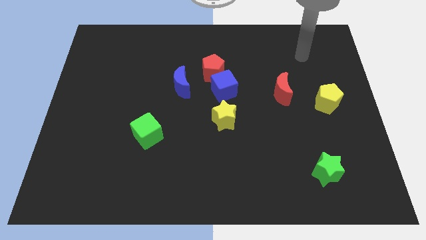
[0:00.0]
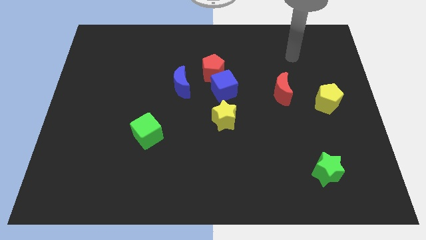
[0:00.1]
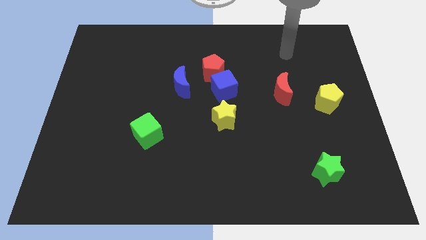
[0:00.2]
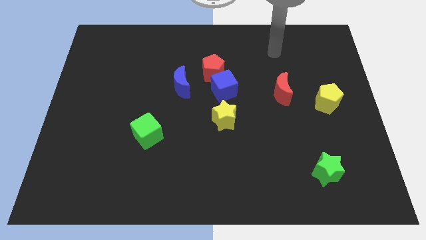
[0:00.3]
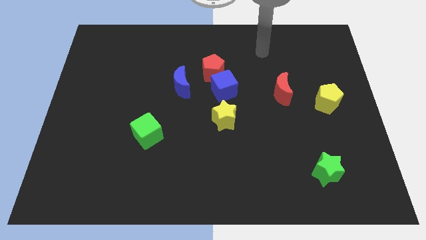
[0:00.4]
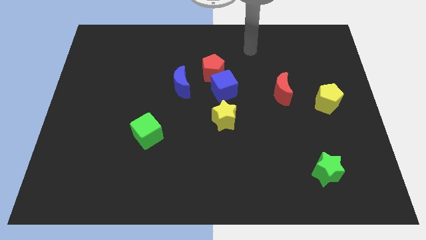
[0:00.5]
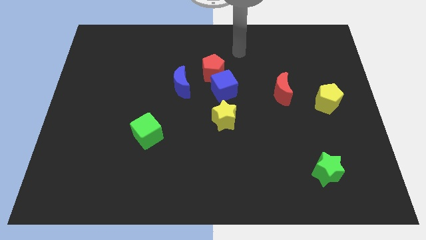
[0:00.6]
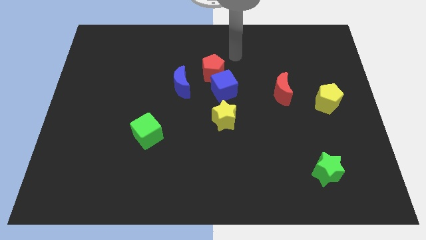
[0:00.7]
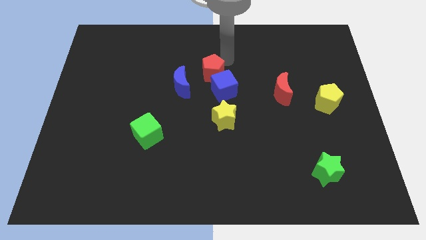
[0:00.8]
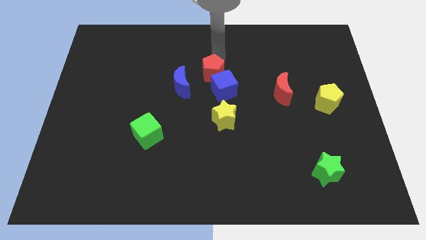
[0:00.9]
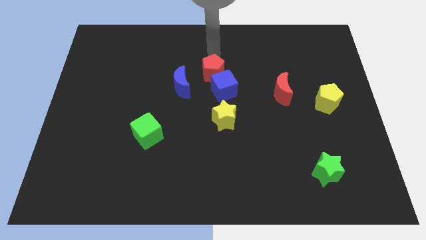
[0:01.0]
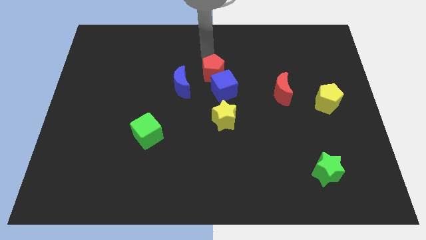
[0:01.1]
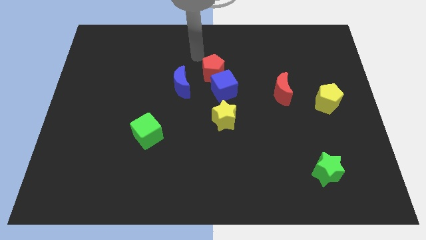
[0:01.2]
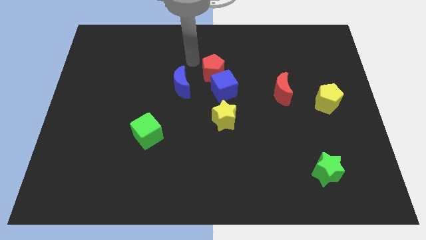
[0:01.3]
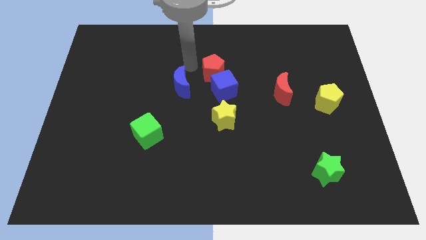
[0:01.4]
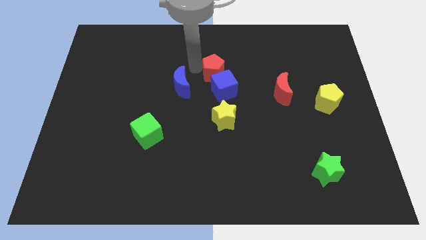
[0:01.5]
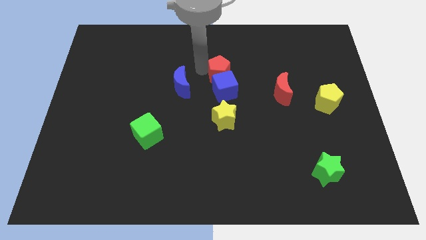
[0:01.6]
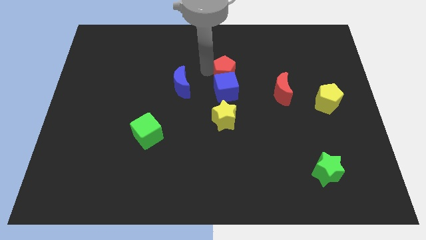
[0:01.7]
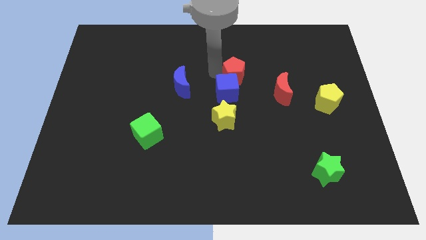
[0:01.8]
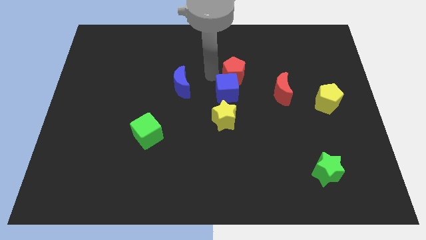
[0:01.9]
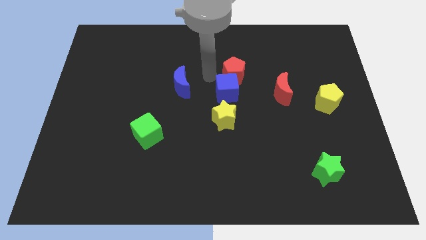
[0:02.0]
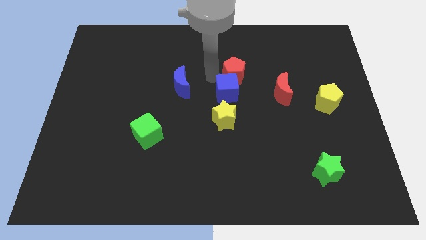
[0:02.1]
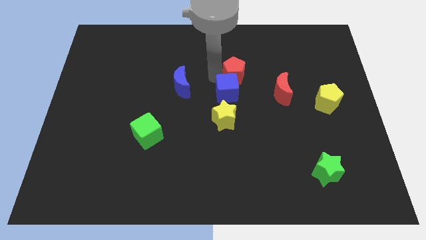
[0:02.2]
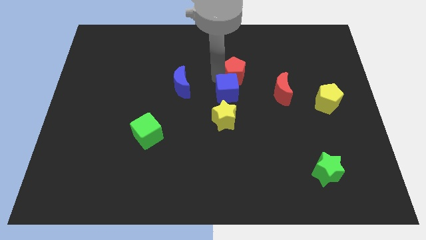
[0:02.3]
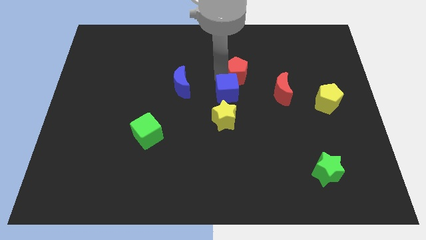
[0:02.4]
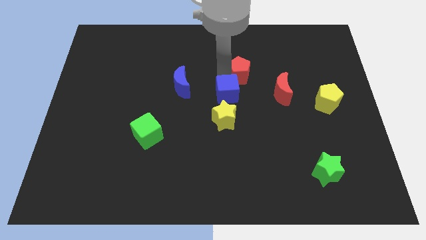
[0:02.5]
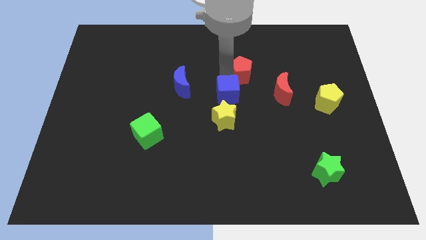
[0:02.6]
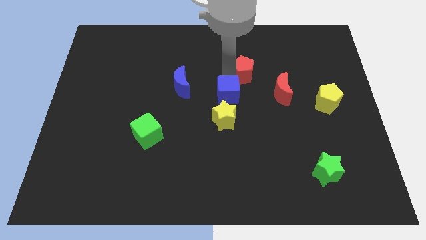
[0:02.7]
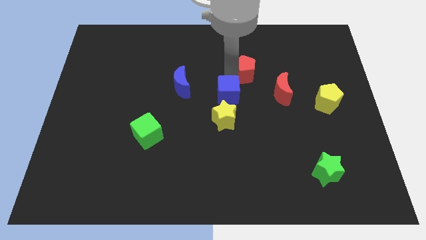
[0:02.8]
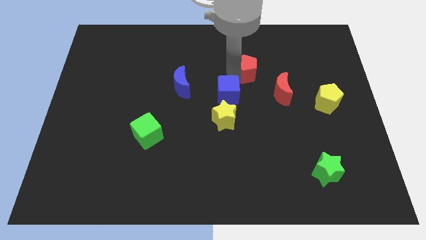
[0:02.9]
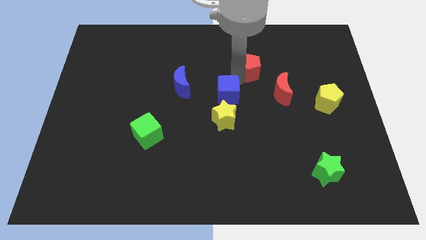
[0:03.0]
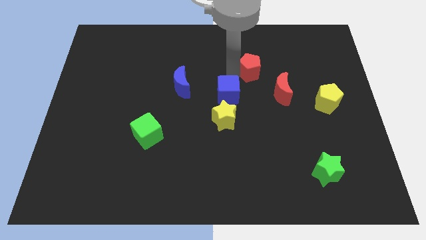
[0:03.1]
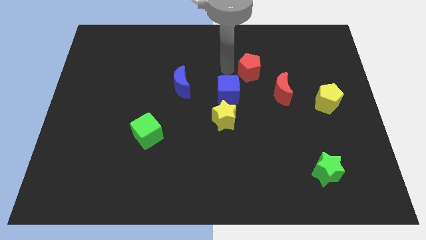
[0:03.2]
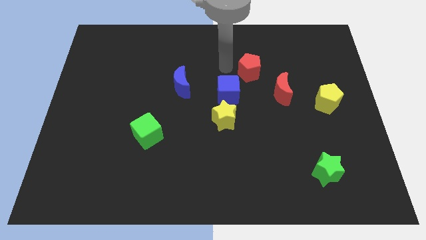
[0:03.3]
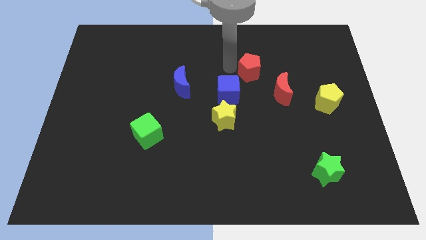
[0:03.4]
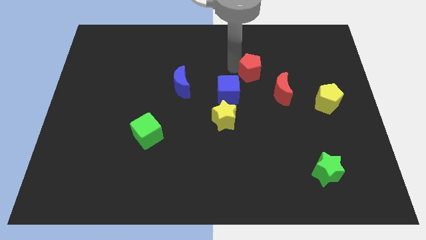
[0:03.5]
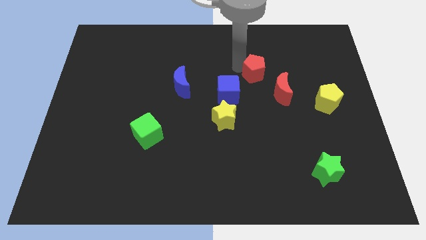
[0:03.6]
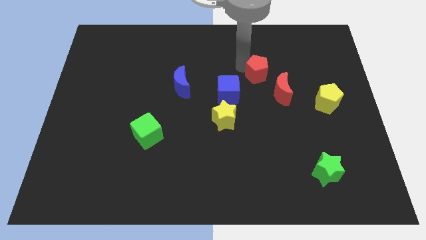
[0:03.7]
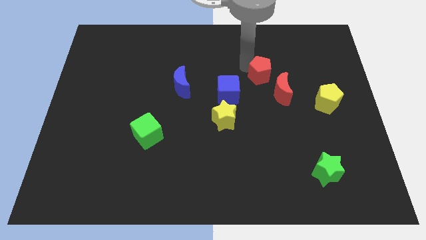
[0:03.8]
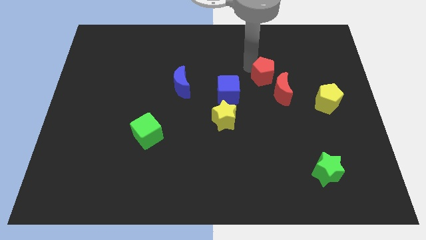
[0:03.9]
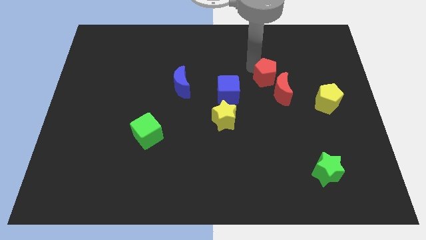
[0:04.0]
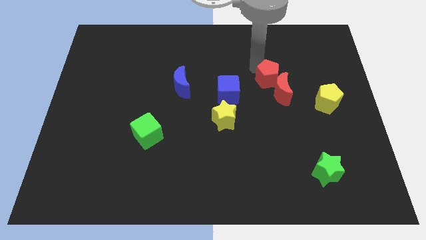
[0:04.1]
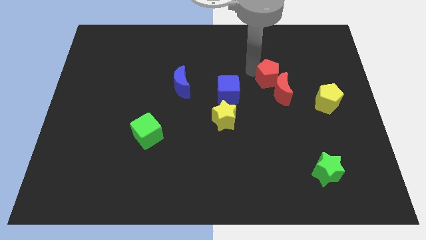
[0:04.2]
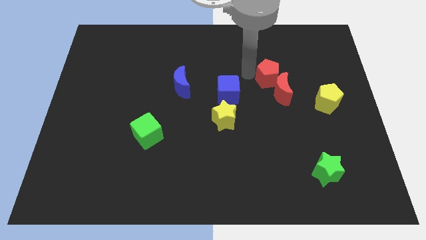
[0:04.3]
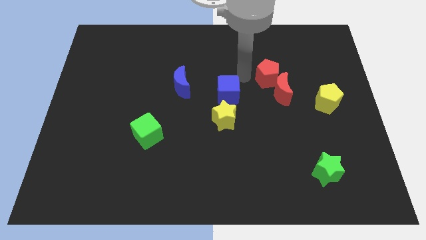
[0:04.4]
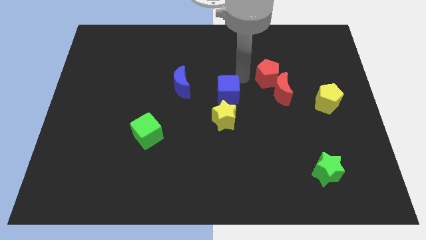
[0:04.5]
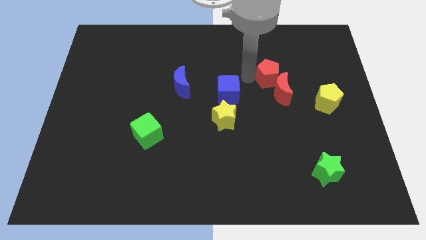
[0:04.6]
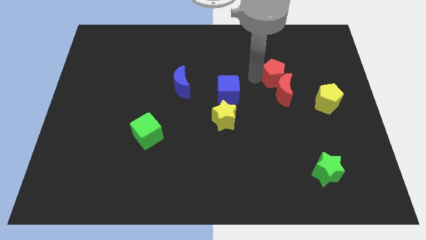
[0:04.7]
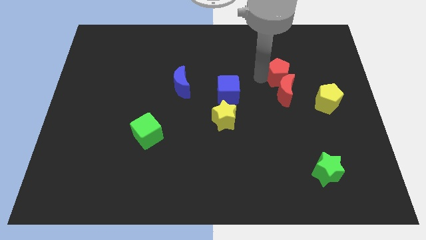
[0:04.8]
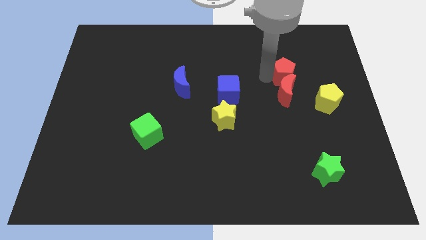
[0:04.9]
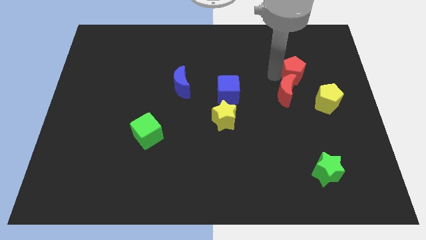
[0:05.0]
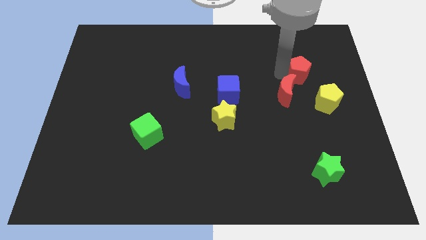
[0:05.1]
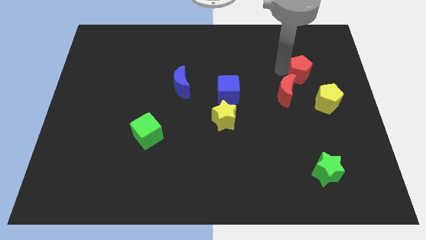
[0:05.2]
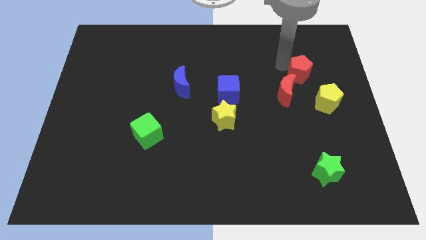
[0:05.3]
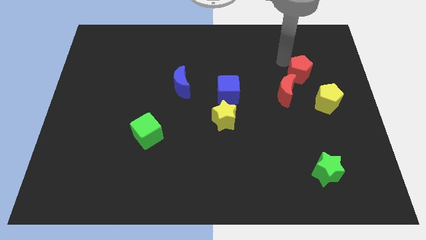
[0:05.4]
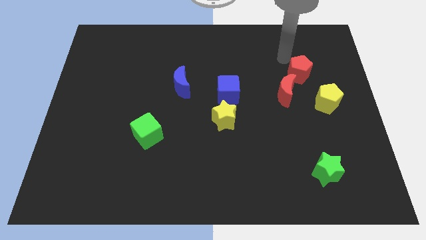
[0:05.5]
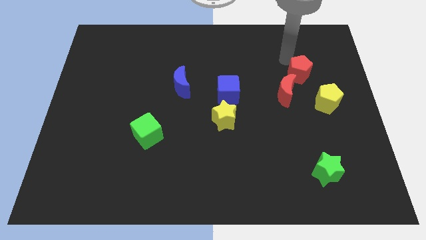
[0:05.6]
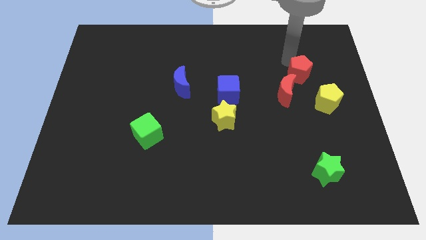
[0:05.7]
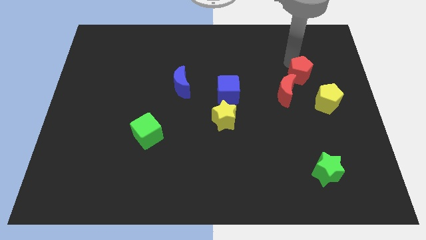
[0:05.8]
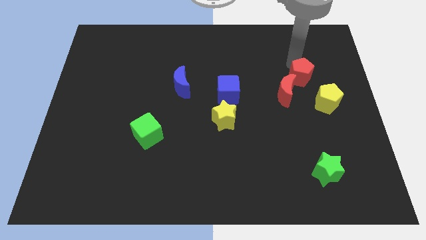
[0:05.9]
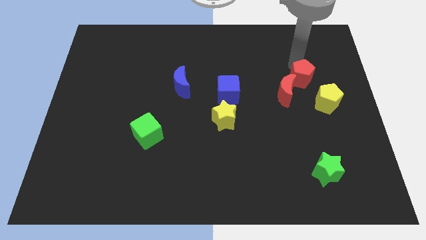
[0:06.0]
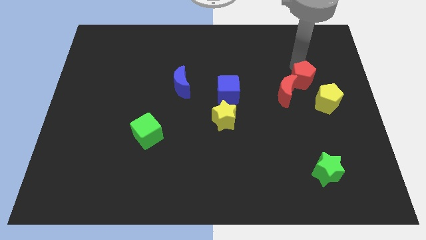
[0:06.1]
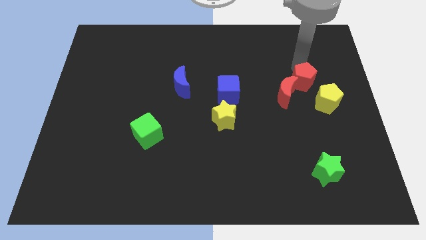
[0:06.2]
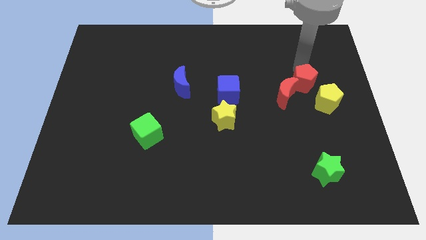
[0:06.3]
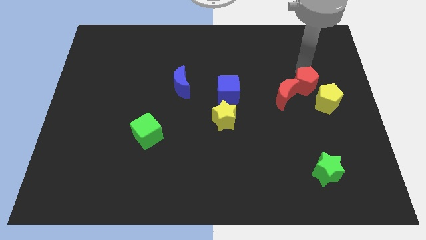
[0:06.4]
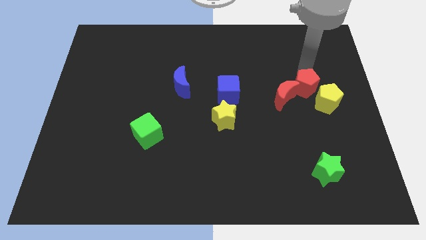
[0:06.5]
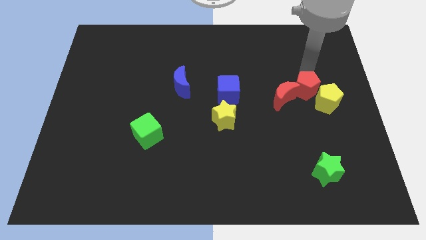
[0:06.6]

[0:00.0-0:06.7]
move the red pentagon close to the yellow pentagon

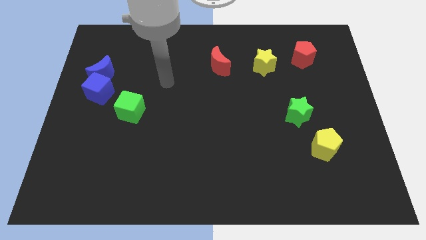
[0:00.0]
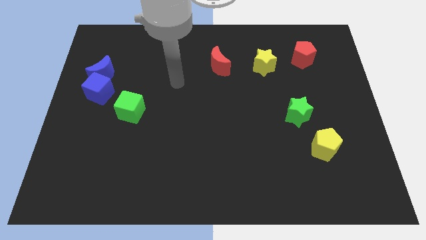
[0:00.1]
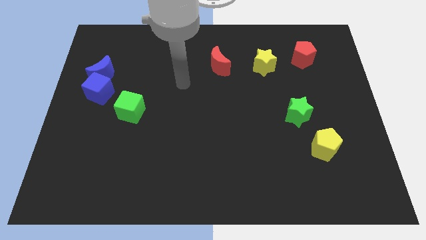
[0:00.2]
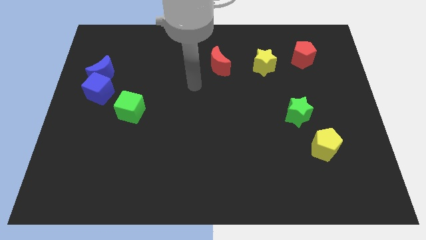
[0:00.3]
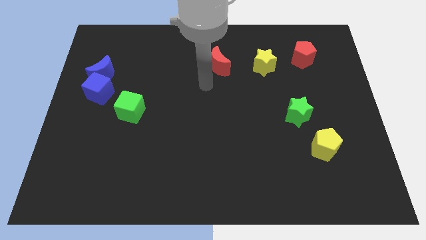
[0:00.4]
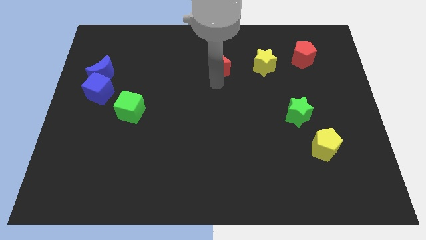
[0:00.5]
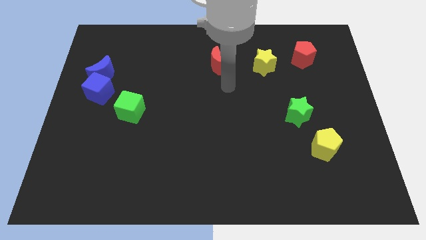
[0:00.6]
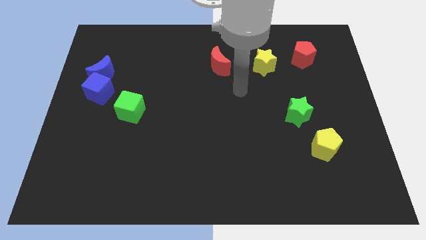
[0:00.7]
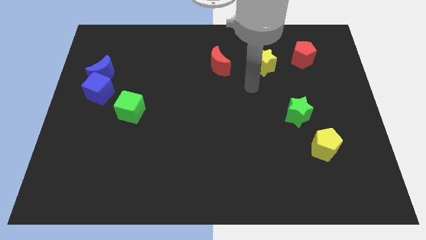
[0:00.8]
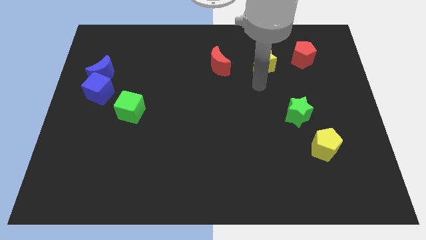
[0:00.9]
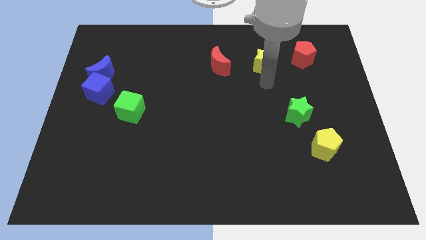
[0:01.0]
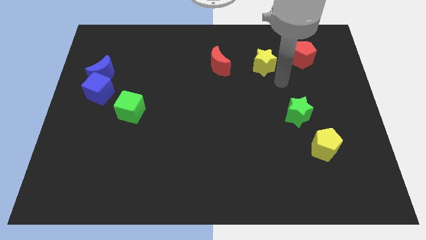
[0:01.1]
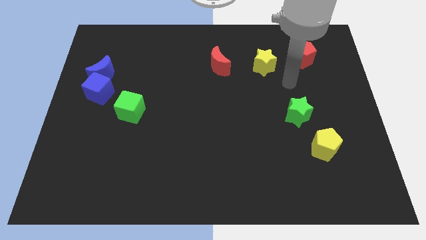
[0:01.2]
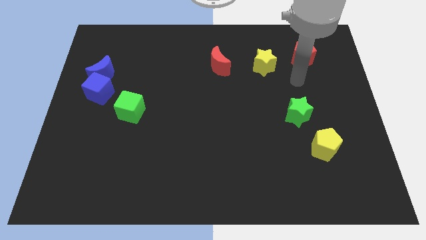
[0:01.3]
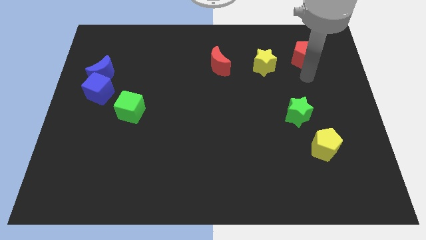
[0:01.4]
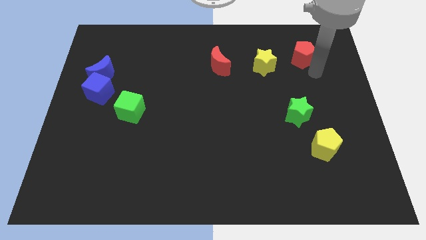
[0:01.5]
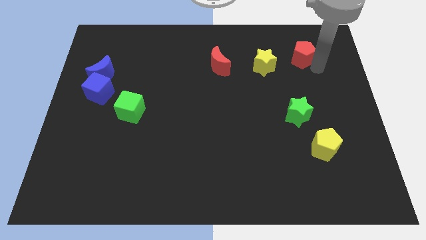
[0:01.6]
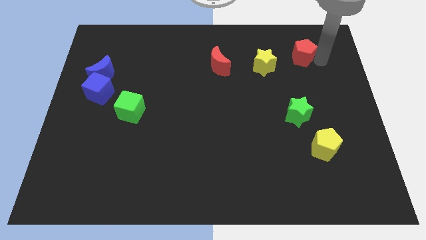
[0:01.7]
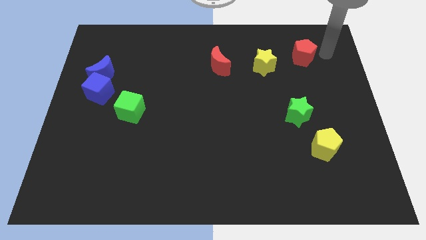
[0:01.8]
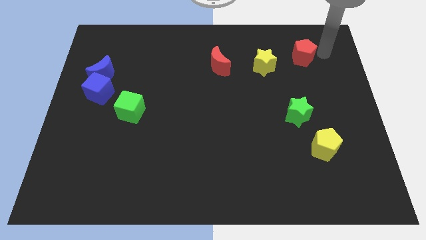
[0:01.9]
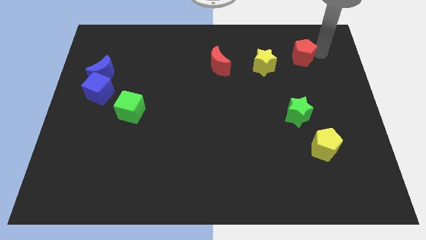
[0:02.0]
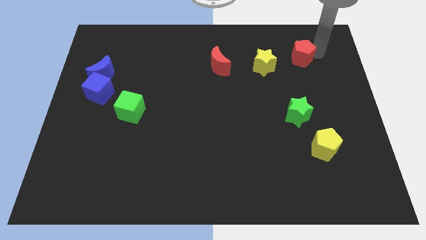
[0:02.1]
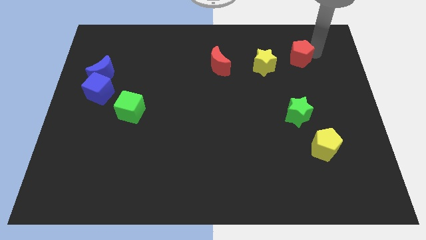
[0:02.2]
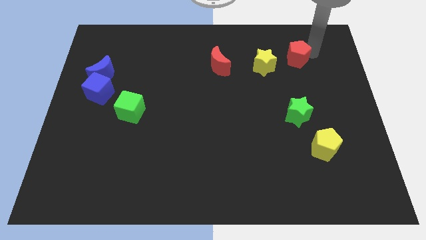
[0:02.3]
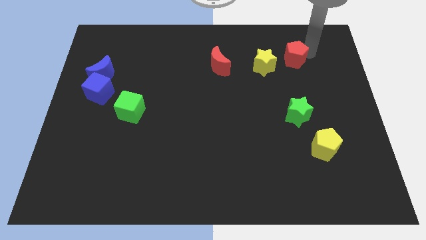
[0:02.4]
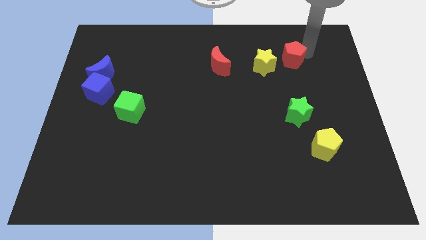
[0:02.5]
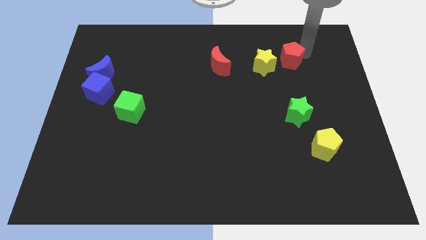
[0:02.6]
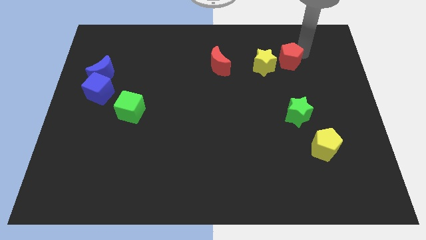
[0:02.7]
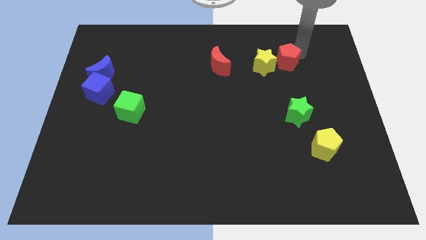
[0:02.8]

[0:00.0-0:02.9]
push the red pentagon next to the yellow star
